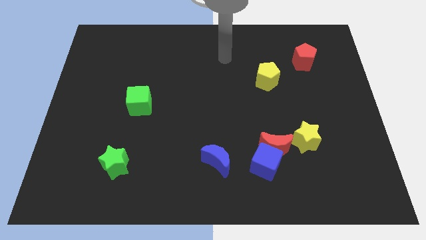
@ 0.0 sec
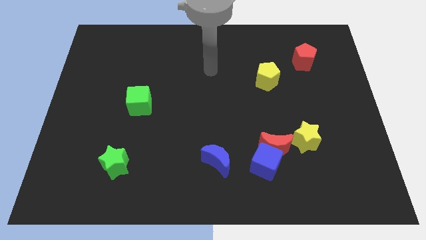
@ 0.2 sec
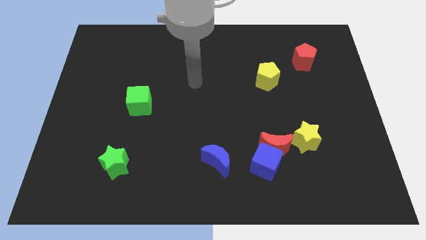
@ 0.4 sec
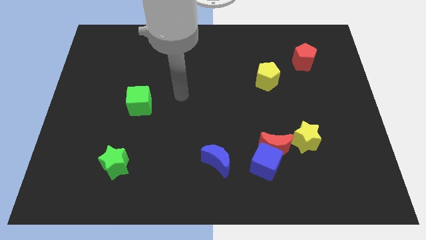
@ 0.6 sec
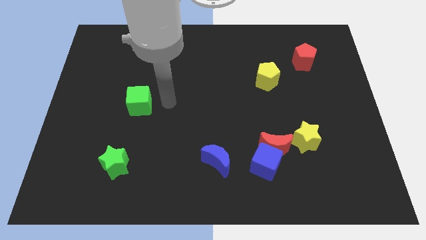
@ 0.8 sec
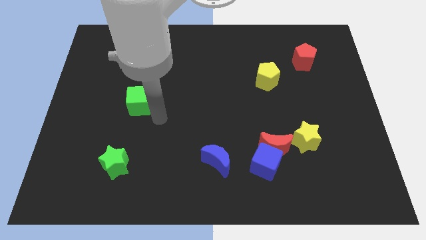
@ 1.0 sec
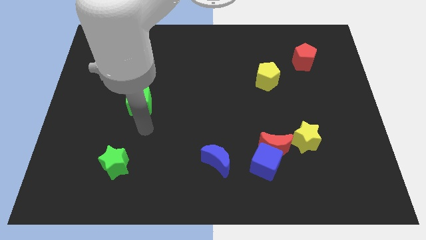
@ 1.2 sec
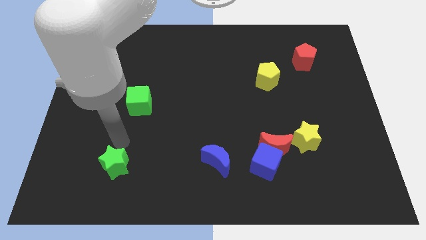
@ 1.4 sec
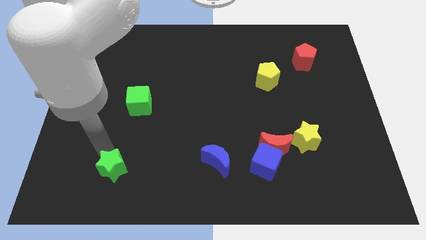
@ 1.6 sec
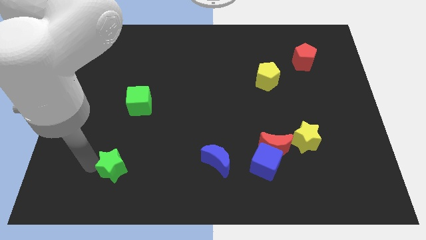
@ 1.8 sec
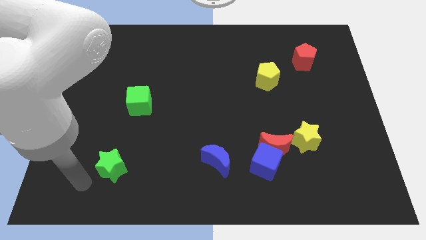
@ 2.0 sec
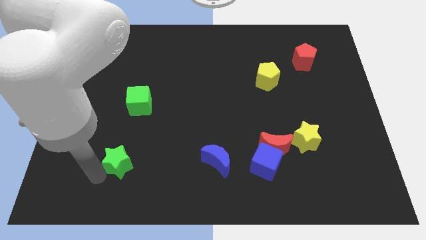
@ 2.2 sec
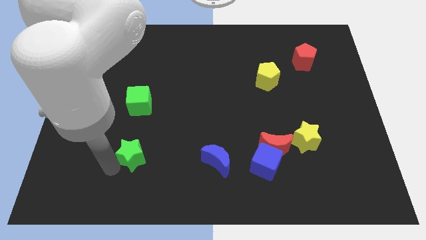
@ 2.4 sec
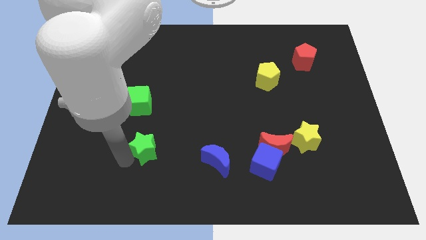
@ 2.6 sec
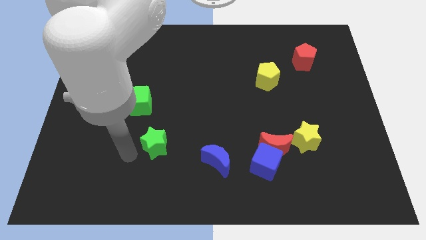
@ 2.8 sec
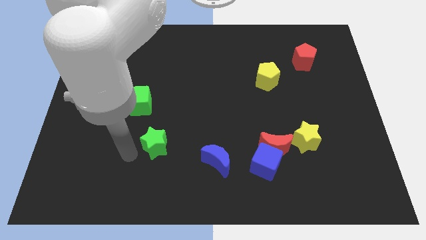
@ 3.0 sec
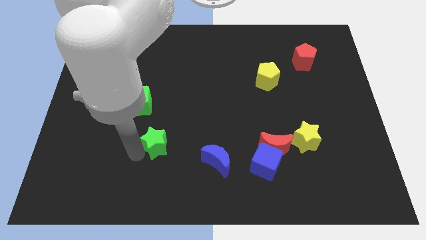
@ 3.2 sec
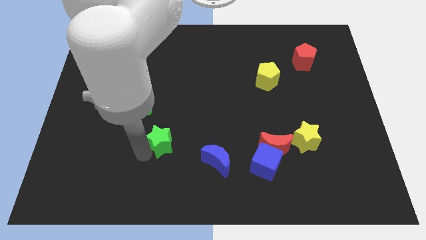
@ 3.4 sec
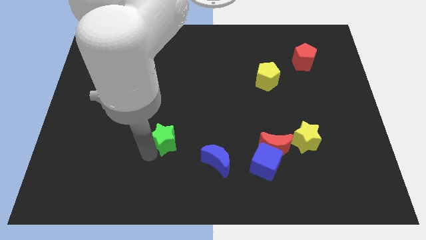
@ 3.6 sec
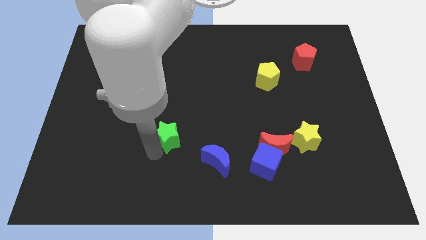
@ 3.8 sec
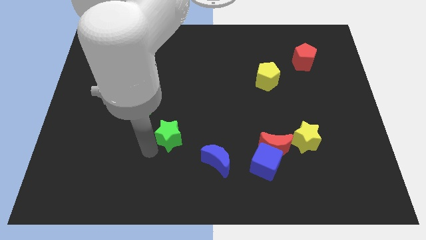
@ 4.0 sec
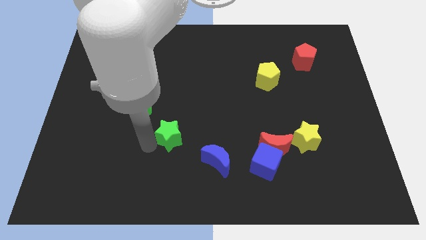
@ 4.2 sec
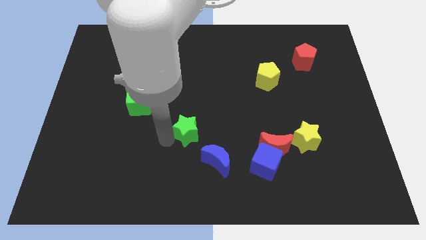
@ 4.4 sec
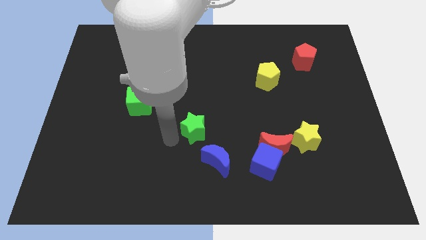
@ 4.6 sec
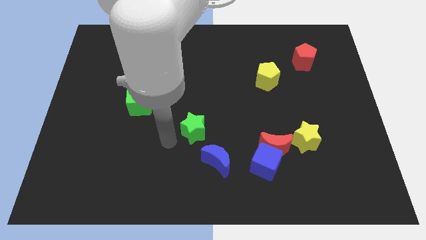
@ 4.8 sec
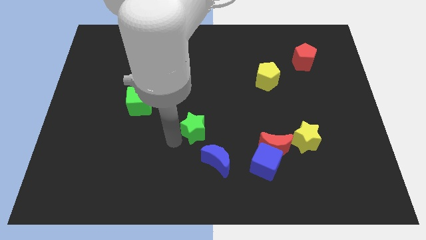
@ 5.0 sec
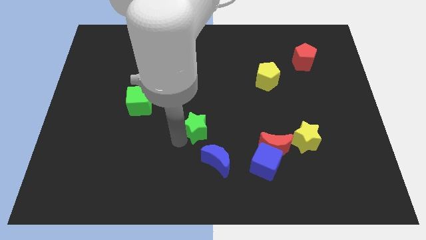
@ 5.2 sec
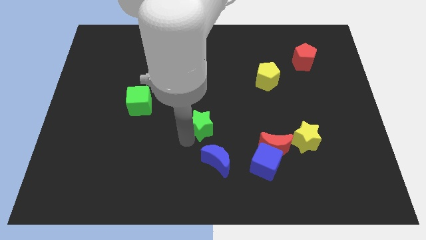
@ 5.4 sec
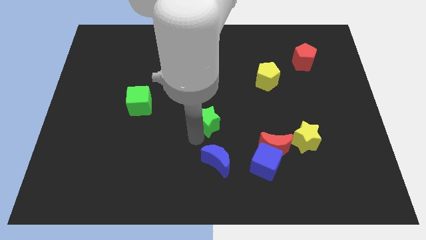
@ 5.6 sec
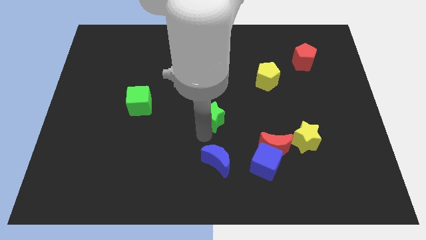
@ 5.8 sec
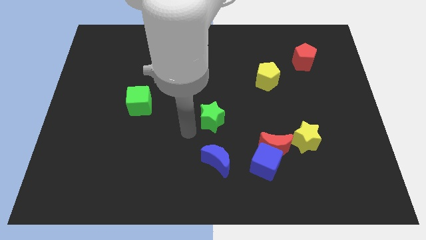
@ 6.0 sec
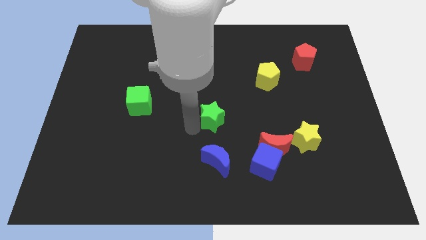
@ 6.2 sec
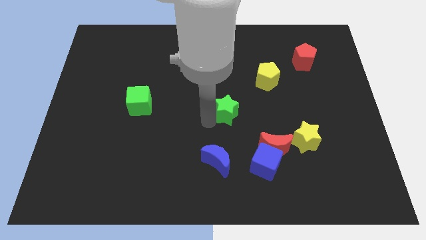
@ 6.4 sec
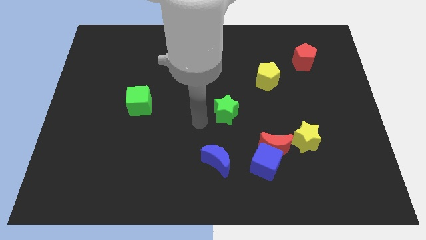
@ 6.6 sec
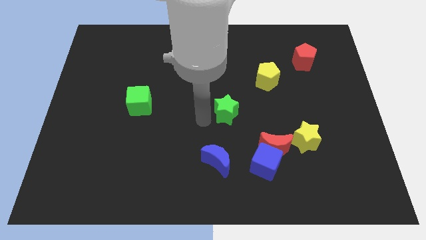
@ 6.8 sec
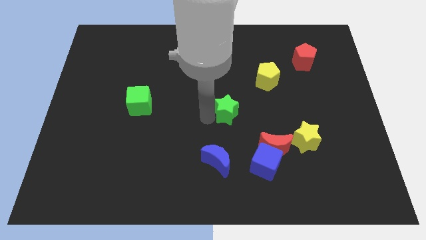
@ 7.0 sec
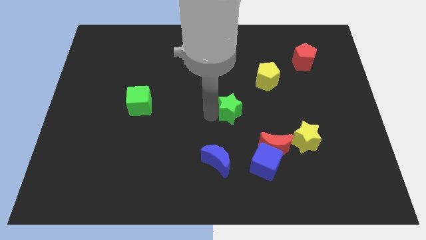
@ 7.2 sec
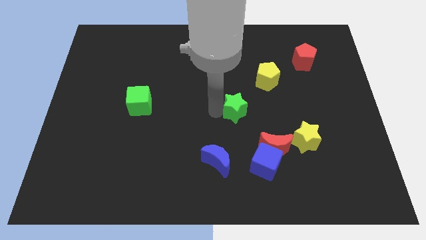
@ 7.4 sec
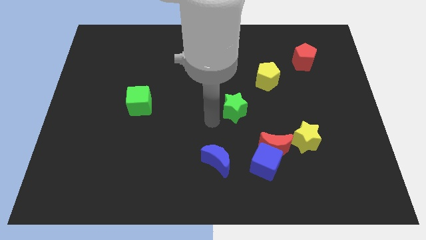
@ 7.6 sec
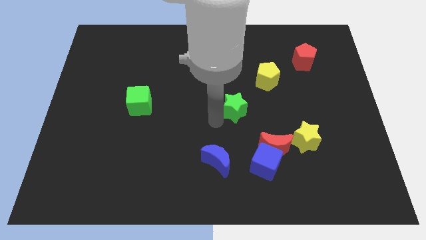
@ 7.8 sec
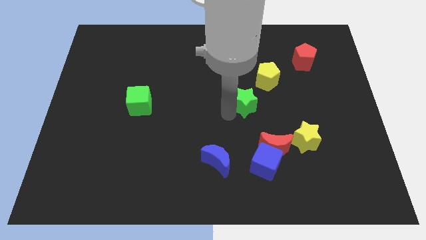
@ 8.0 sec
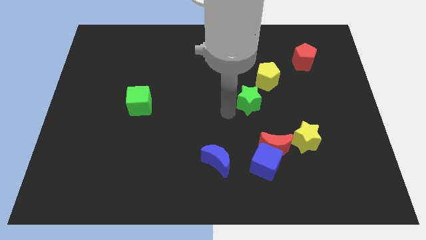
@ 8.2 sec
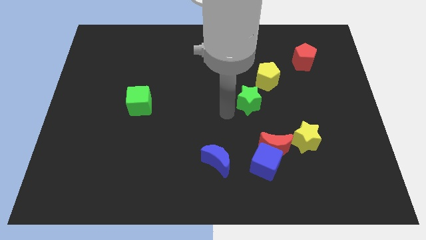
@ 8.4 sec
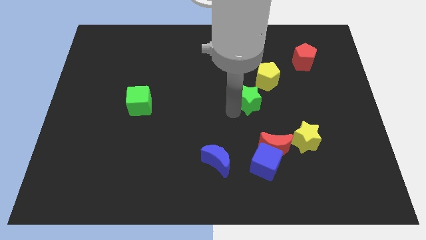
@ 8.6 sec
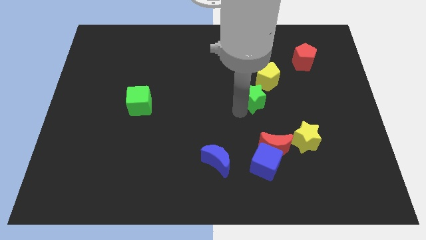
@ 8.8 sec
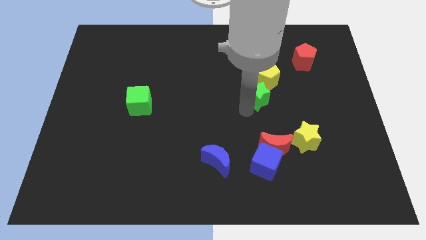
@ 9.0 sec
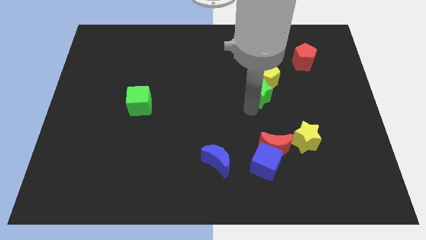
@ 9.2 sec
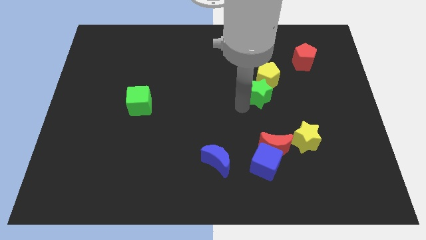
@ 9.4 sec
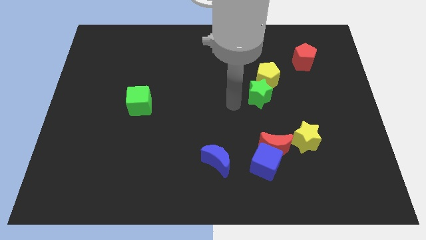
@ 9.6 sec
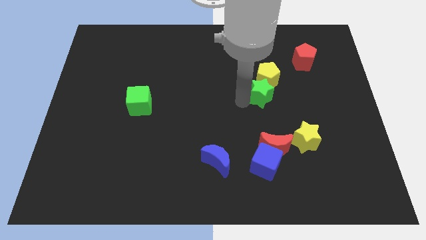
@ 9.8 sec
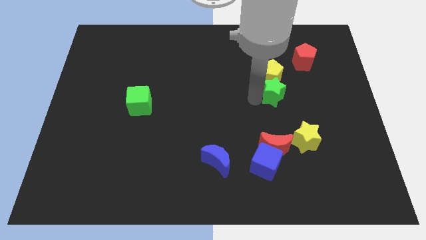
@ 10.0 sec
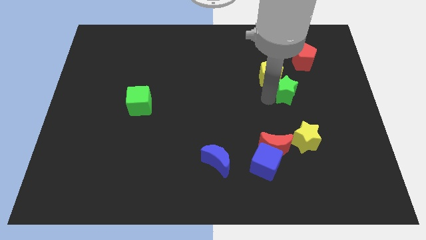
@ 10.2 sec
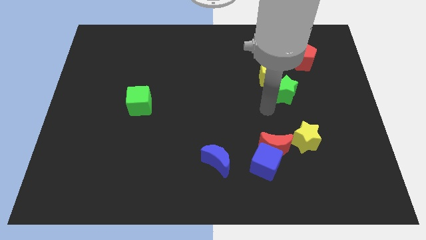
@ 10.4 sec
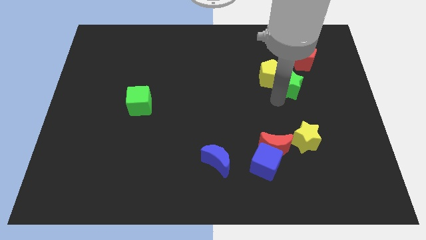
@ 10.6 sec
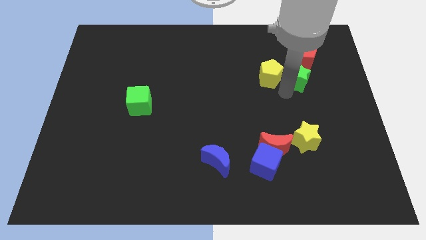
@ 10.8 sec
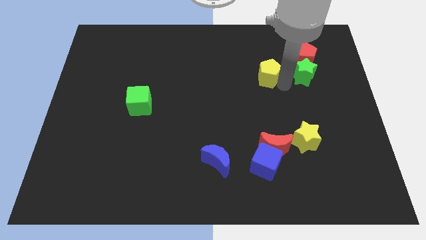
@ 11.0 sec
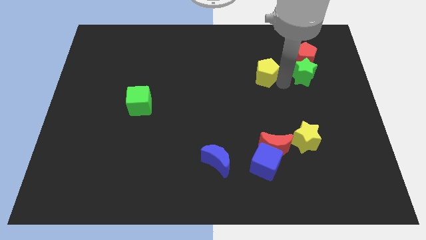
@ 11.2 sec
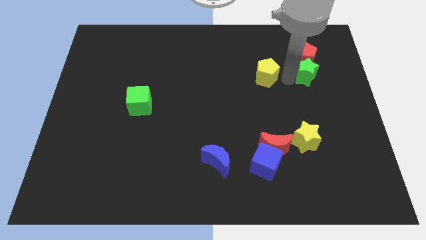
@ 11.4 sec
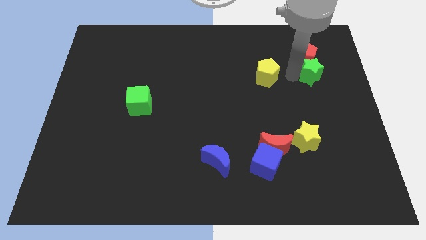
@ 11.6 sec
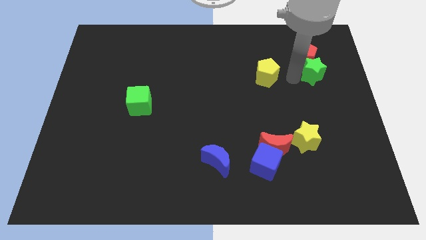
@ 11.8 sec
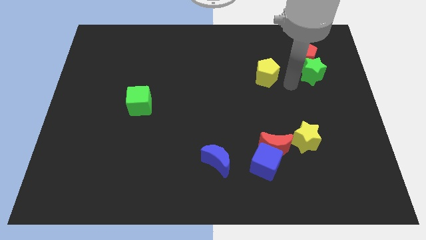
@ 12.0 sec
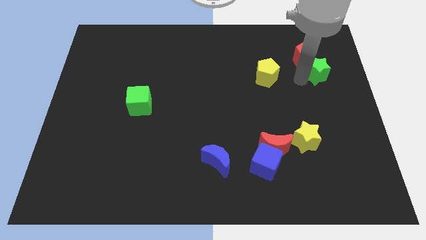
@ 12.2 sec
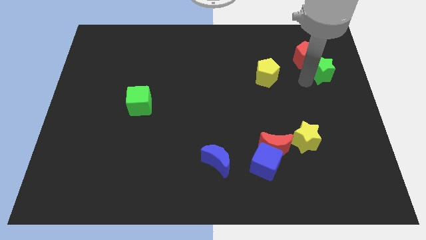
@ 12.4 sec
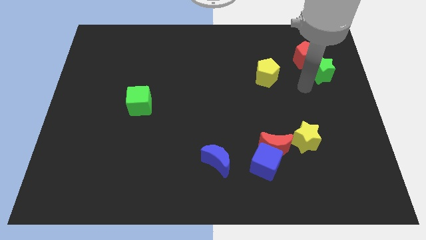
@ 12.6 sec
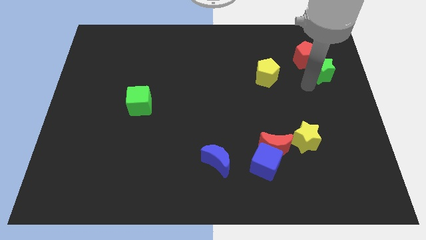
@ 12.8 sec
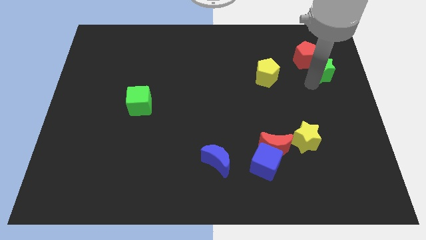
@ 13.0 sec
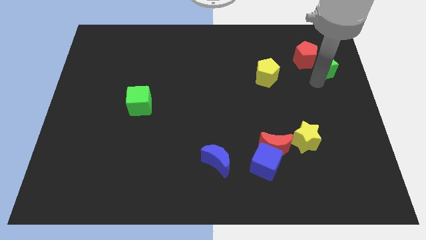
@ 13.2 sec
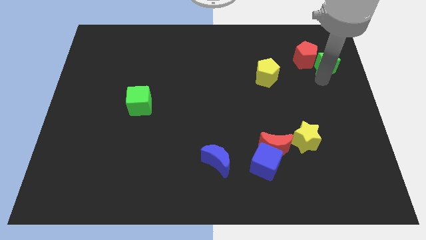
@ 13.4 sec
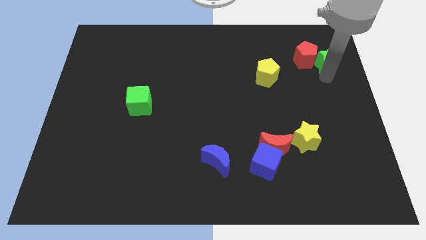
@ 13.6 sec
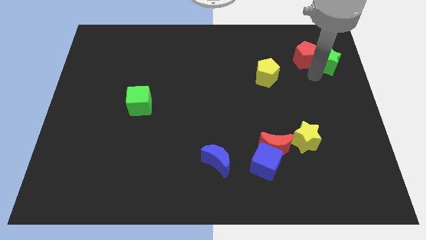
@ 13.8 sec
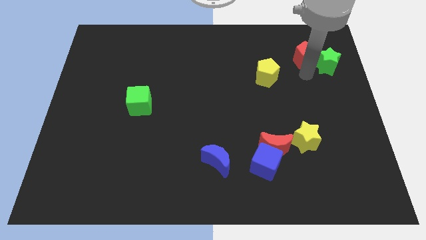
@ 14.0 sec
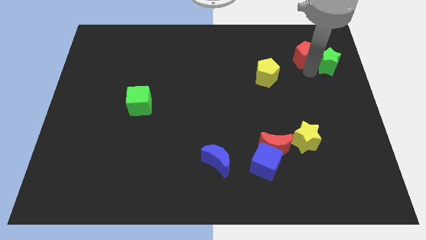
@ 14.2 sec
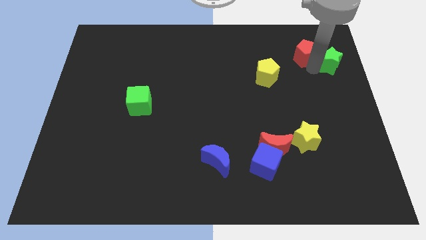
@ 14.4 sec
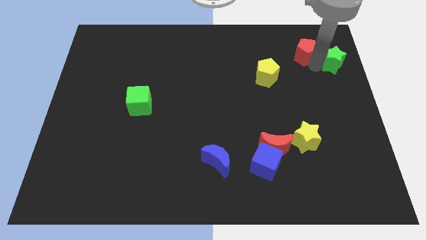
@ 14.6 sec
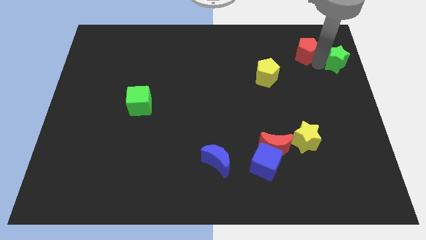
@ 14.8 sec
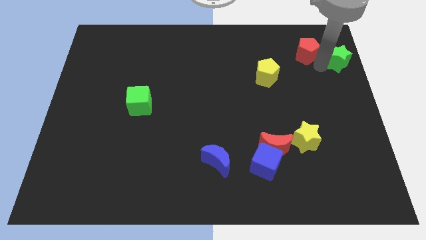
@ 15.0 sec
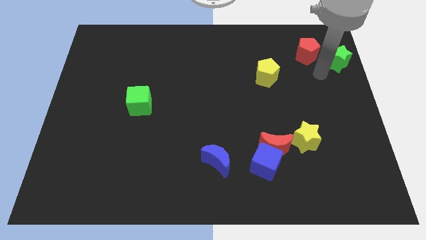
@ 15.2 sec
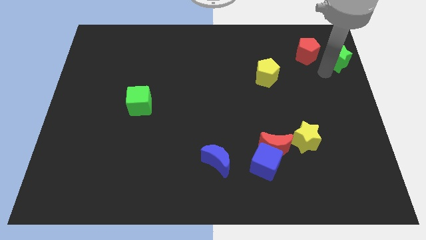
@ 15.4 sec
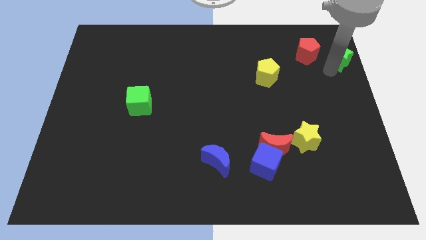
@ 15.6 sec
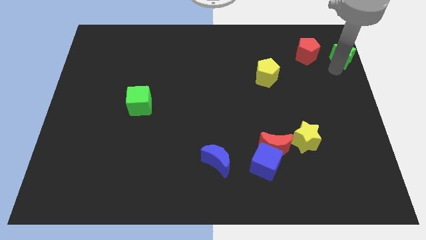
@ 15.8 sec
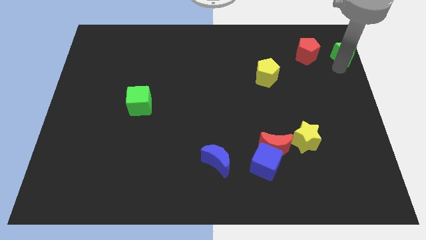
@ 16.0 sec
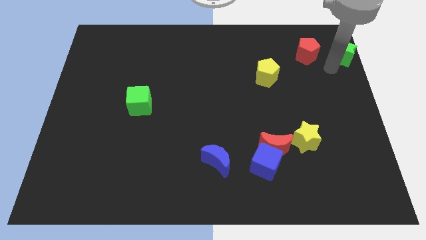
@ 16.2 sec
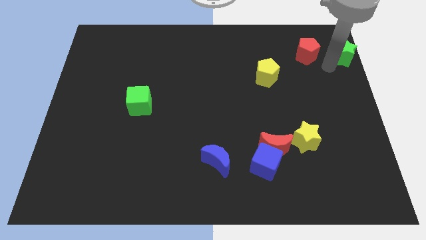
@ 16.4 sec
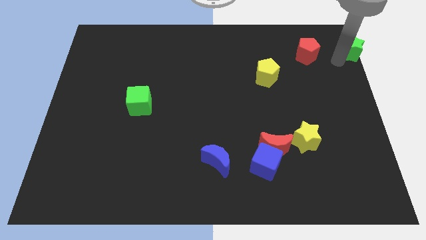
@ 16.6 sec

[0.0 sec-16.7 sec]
move the green star to the top right corner
